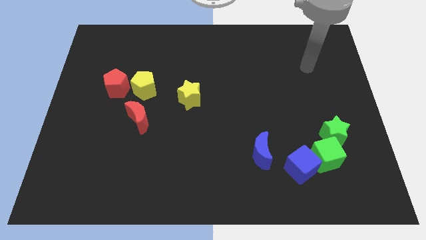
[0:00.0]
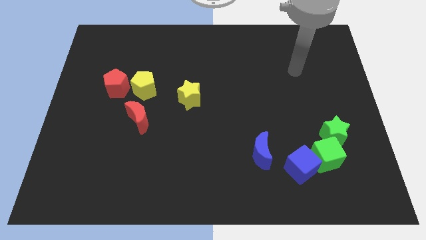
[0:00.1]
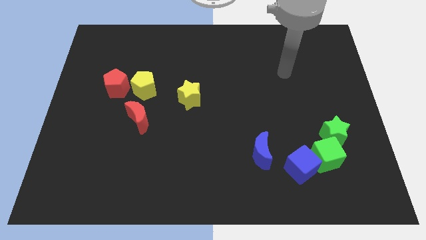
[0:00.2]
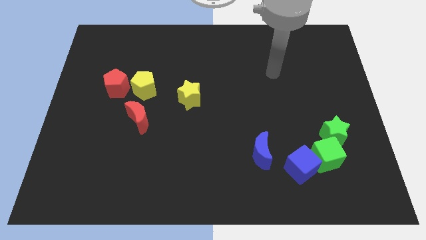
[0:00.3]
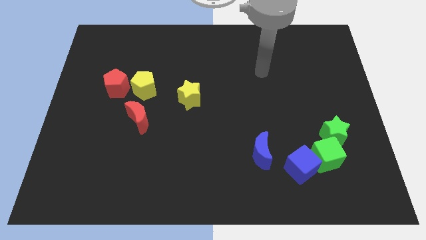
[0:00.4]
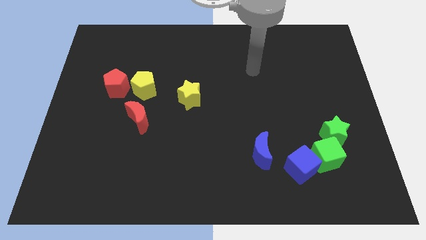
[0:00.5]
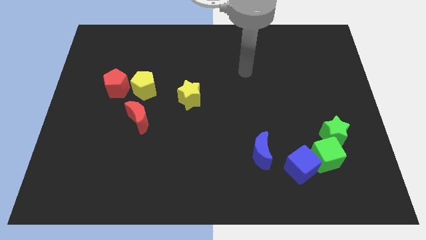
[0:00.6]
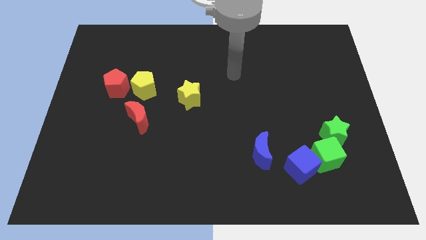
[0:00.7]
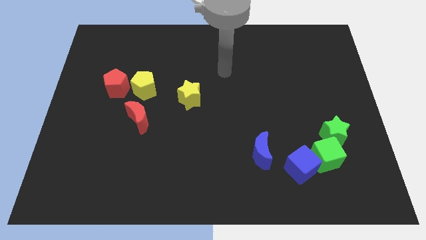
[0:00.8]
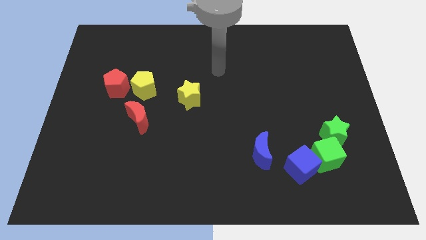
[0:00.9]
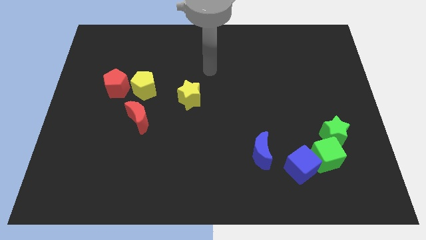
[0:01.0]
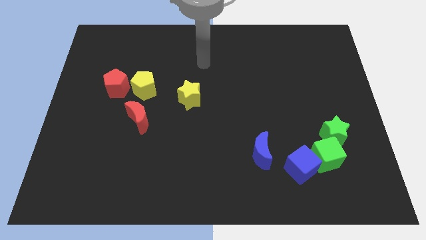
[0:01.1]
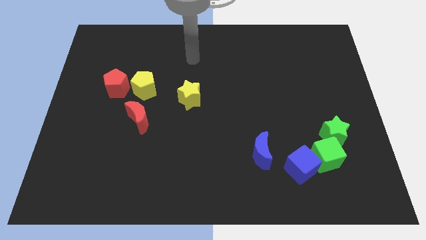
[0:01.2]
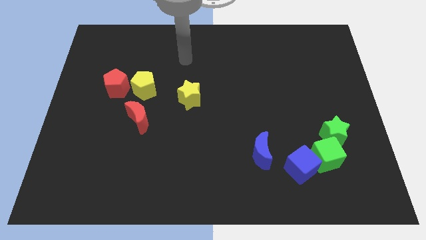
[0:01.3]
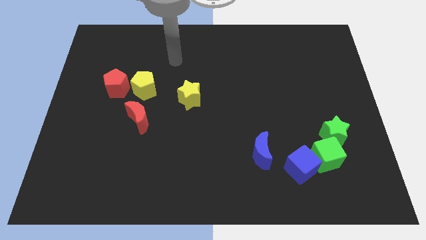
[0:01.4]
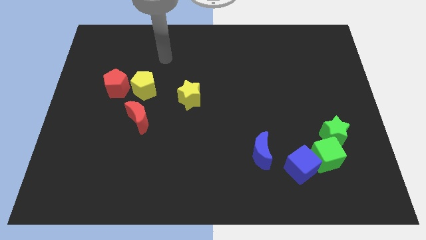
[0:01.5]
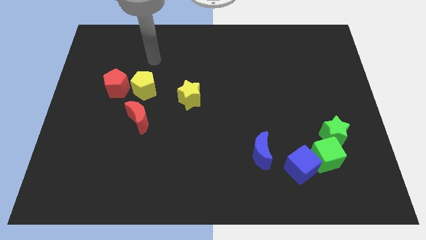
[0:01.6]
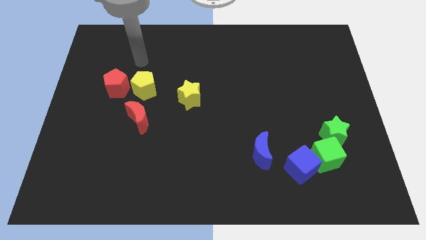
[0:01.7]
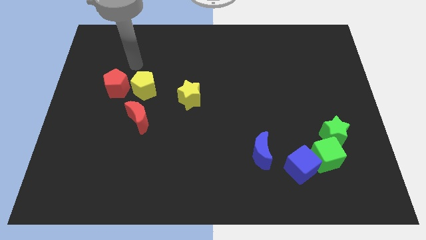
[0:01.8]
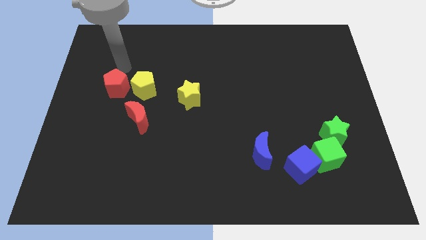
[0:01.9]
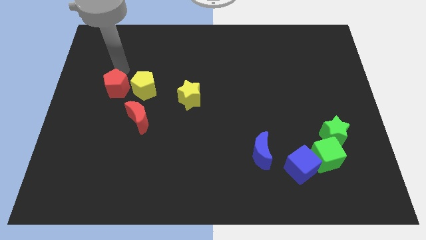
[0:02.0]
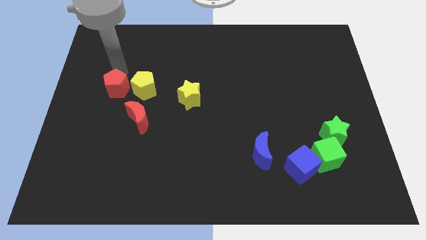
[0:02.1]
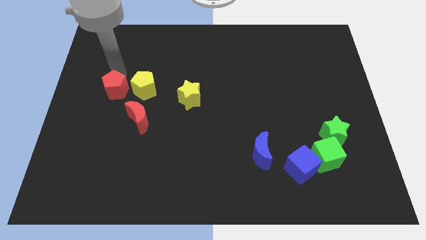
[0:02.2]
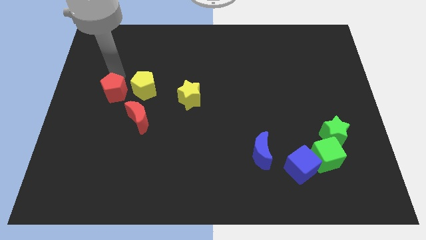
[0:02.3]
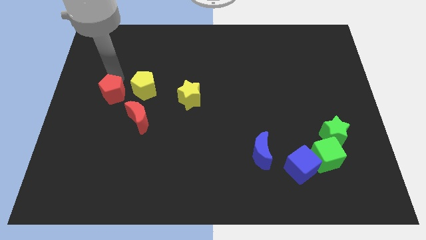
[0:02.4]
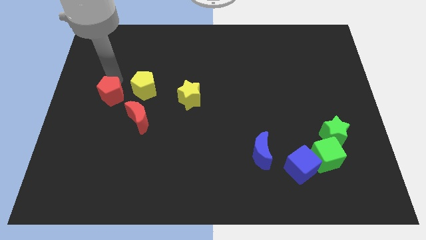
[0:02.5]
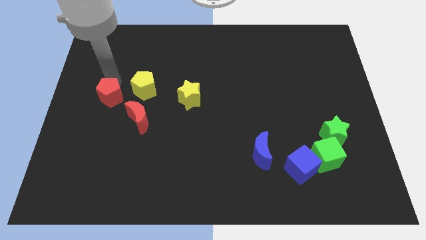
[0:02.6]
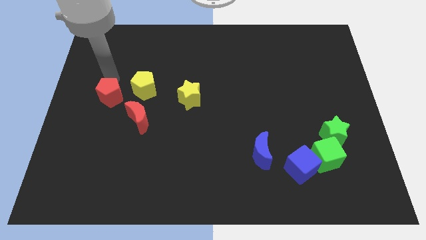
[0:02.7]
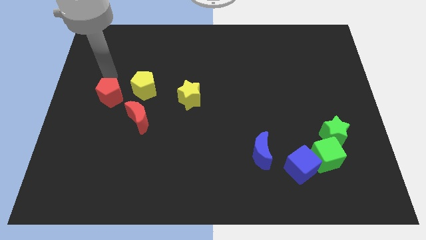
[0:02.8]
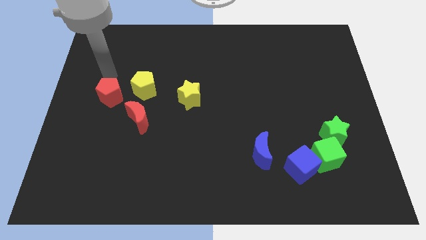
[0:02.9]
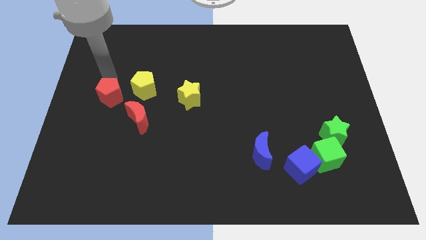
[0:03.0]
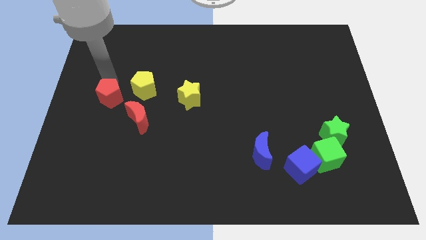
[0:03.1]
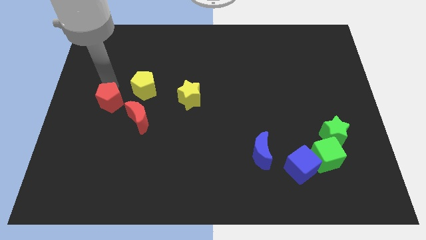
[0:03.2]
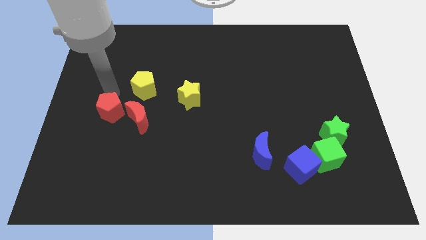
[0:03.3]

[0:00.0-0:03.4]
push the red pentagon down a little

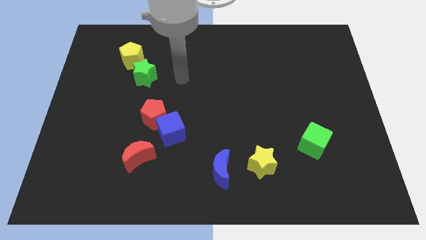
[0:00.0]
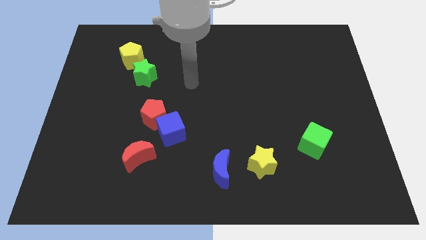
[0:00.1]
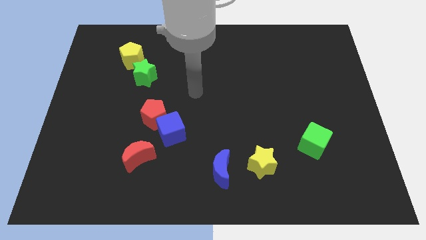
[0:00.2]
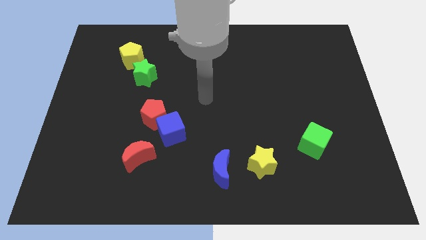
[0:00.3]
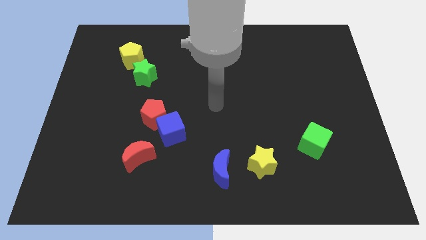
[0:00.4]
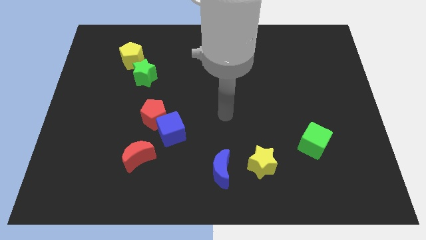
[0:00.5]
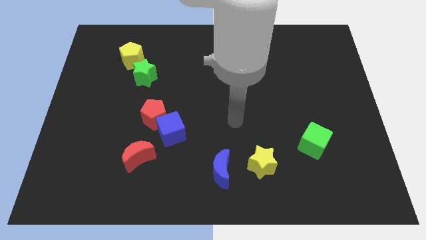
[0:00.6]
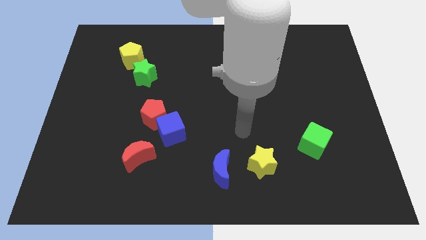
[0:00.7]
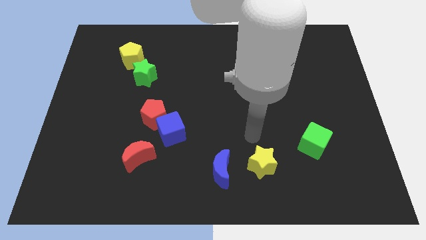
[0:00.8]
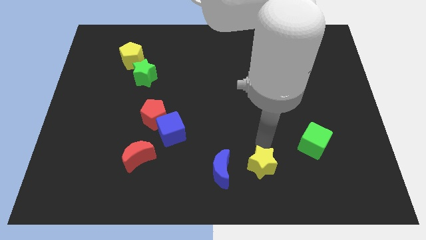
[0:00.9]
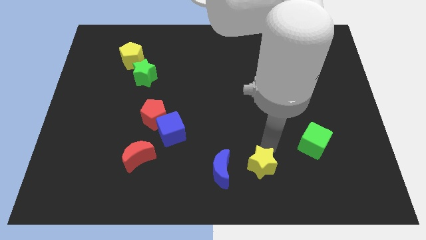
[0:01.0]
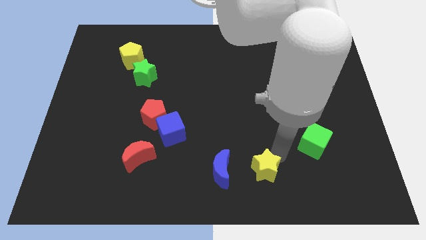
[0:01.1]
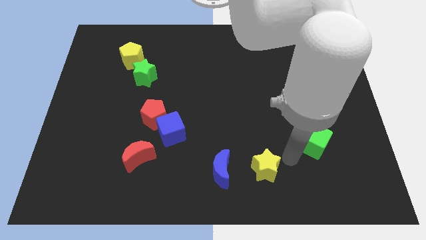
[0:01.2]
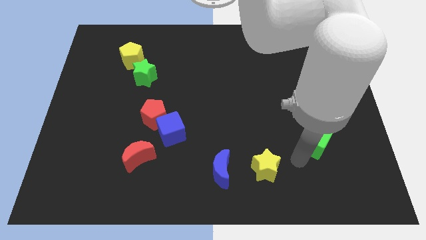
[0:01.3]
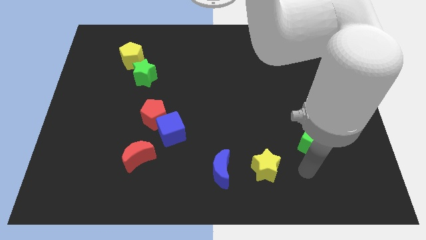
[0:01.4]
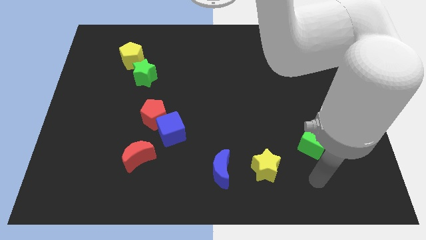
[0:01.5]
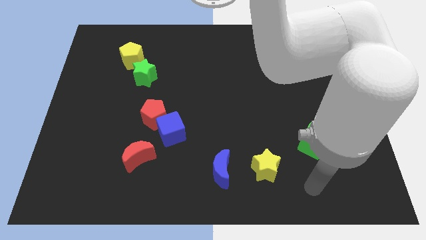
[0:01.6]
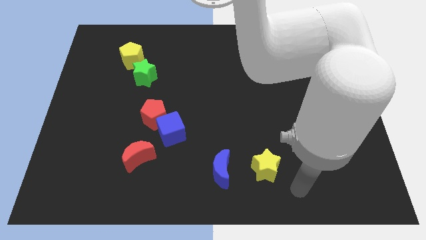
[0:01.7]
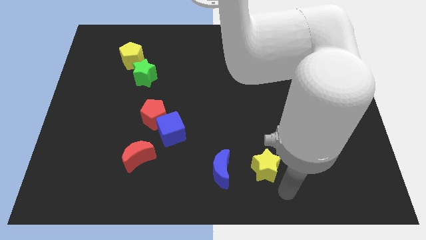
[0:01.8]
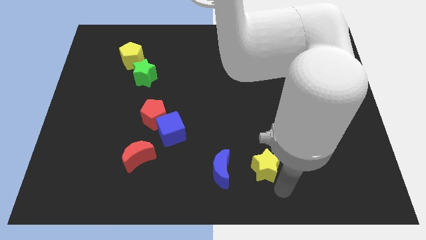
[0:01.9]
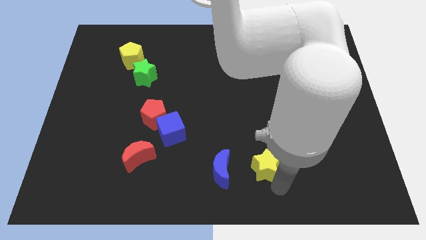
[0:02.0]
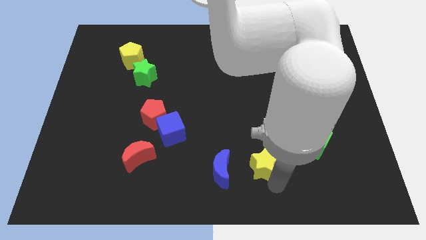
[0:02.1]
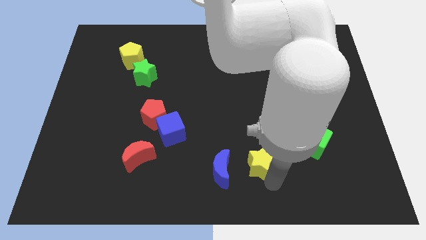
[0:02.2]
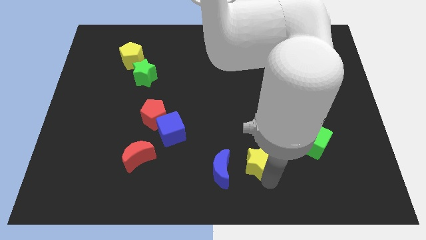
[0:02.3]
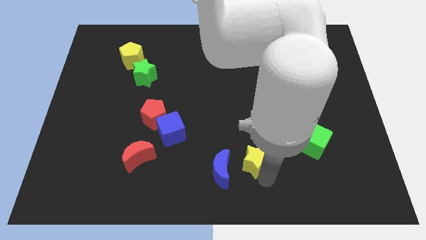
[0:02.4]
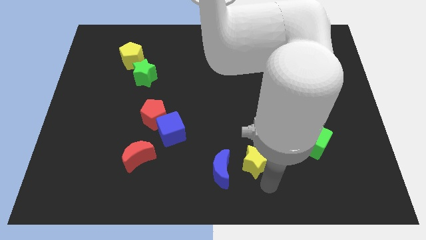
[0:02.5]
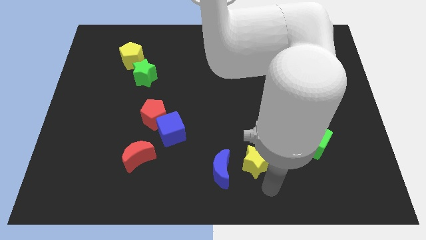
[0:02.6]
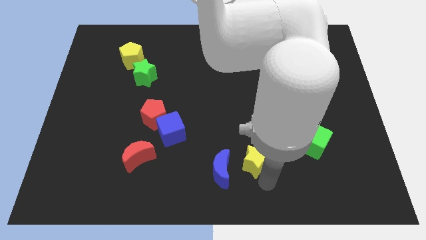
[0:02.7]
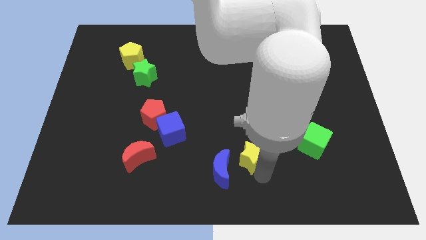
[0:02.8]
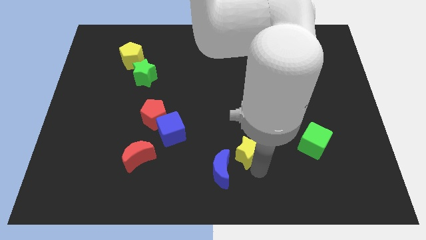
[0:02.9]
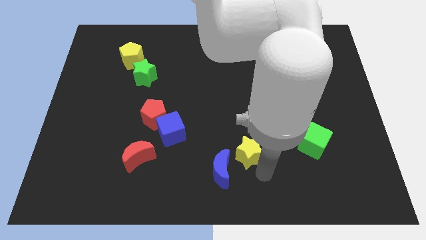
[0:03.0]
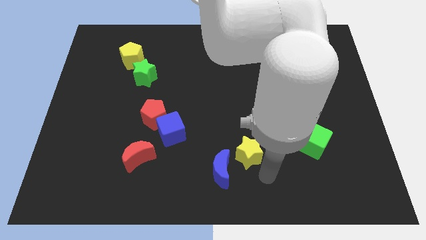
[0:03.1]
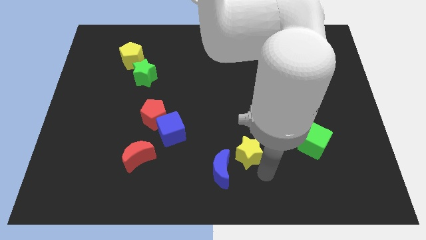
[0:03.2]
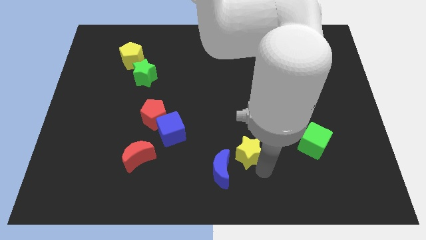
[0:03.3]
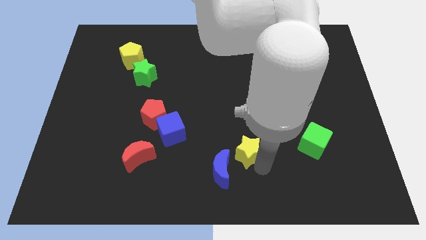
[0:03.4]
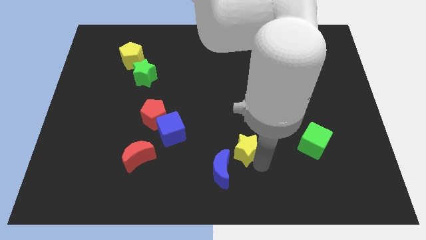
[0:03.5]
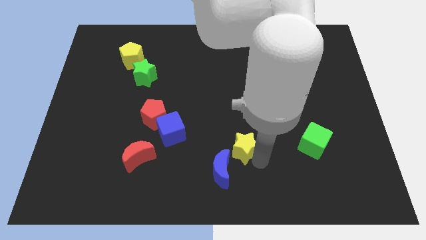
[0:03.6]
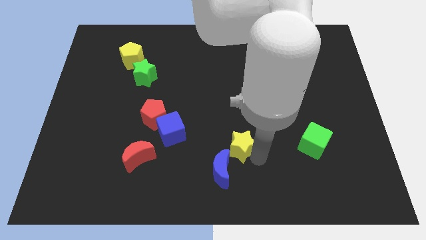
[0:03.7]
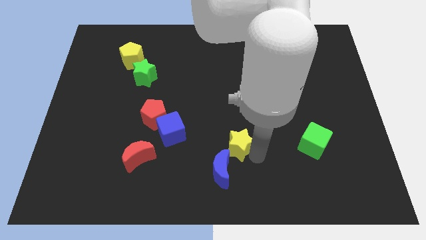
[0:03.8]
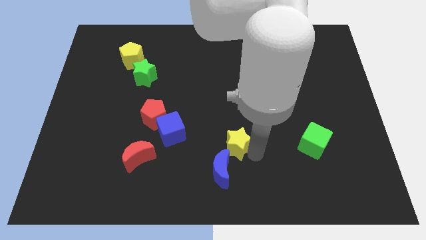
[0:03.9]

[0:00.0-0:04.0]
slide the yellow star upwards and left somewhat

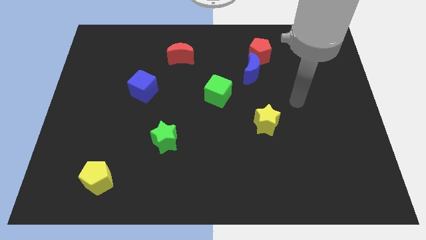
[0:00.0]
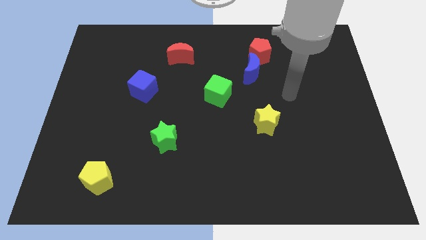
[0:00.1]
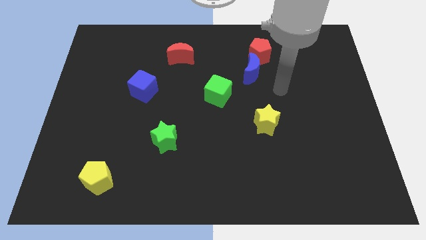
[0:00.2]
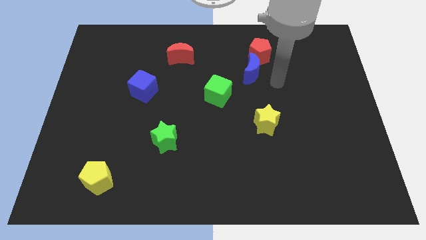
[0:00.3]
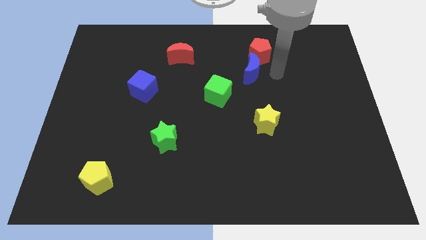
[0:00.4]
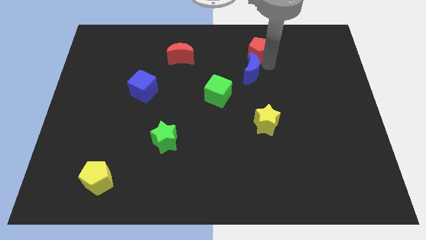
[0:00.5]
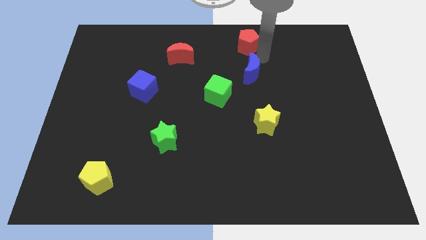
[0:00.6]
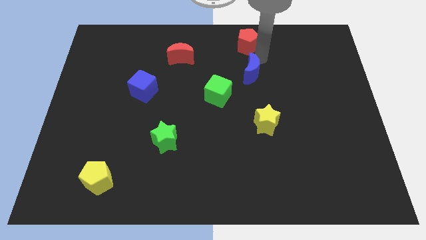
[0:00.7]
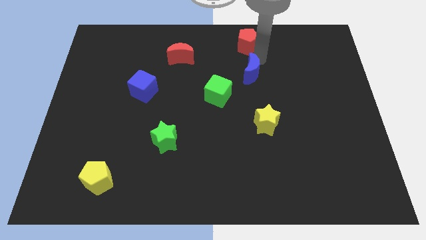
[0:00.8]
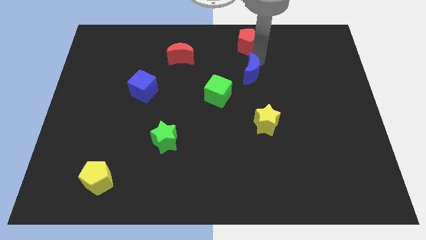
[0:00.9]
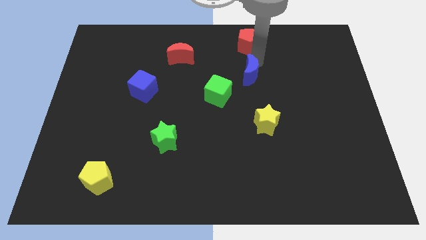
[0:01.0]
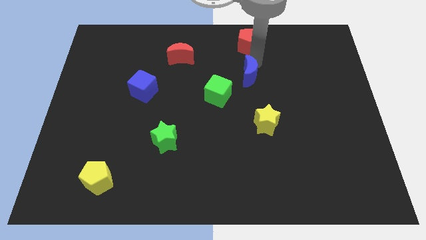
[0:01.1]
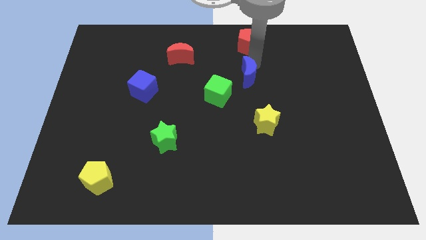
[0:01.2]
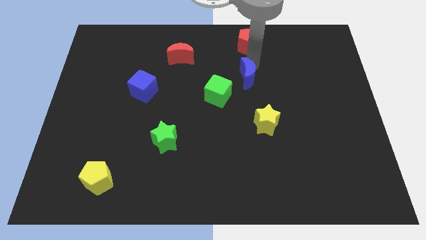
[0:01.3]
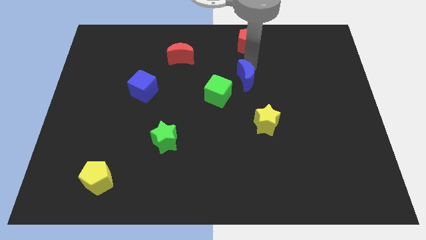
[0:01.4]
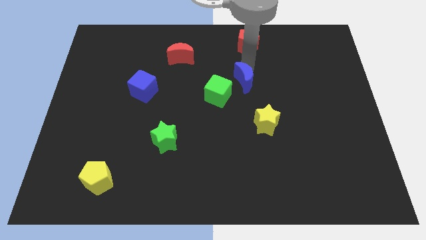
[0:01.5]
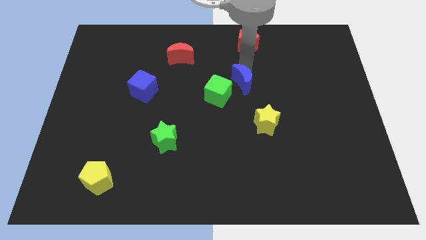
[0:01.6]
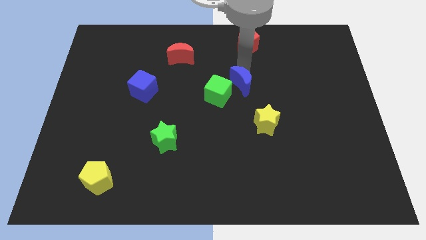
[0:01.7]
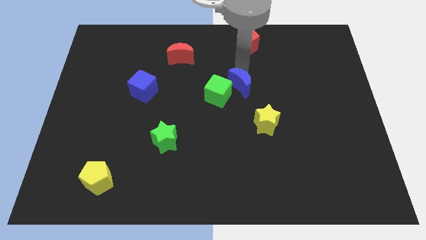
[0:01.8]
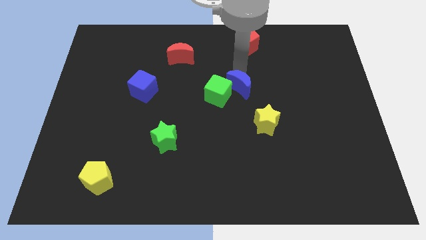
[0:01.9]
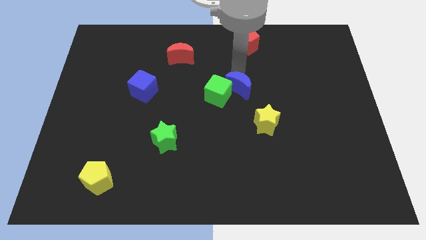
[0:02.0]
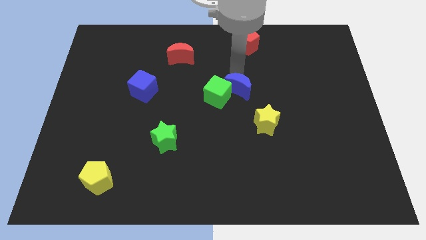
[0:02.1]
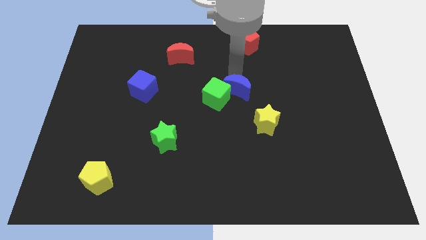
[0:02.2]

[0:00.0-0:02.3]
slide the blue moon downwards and to the left a little
